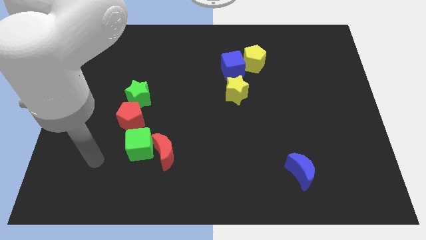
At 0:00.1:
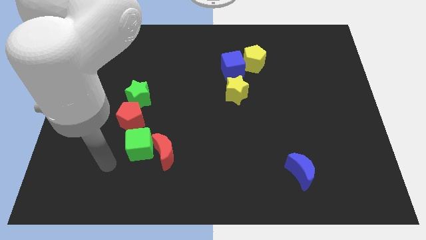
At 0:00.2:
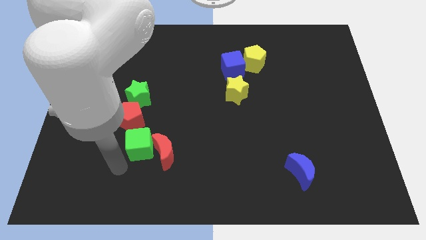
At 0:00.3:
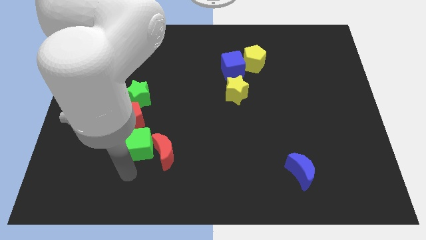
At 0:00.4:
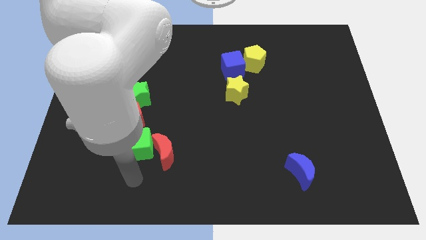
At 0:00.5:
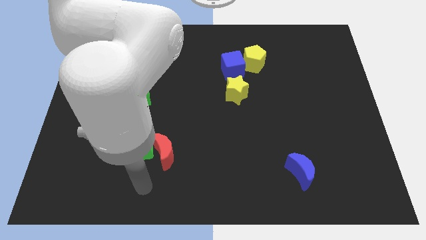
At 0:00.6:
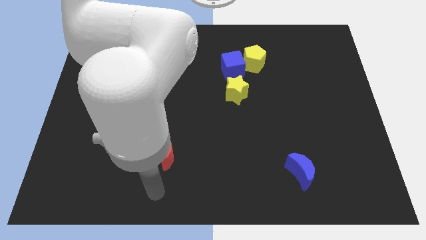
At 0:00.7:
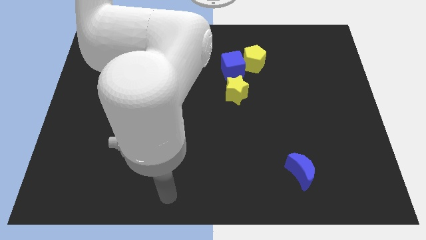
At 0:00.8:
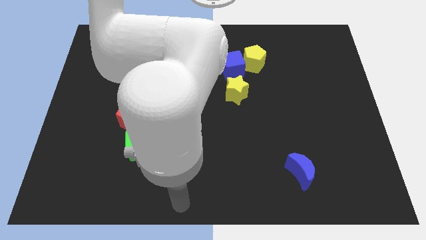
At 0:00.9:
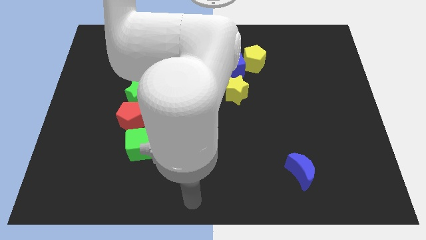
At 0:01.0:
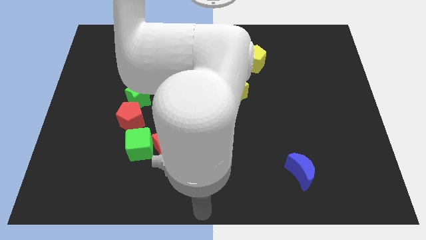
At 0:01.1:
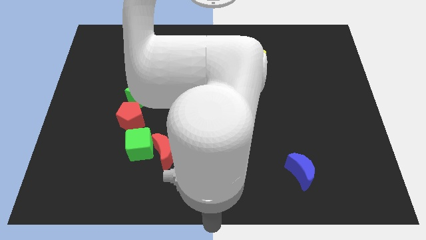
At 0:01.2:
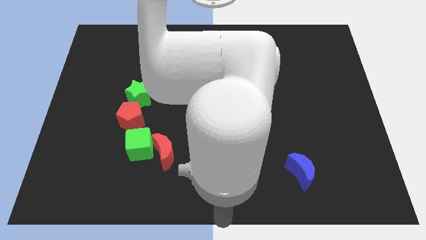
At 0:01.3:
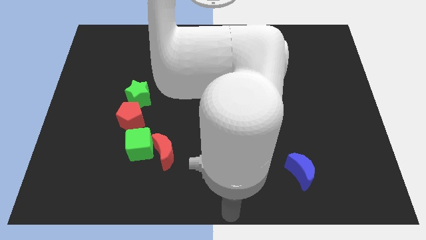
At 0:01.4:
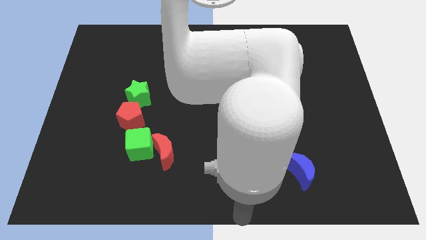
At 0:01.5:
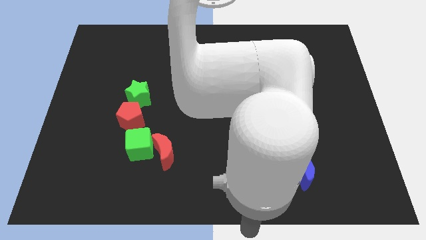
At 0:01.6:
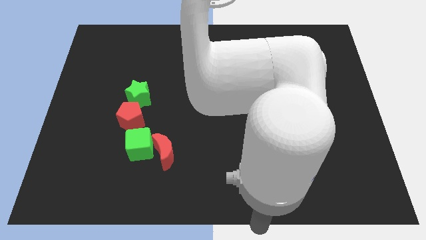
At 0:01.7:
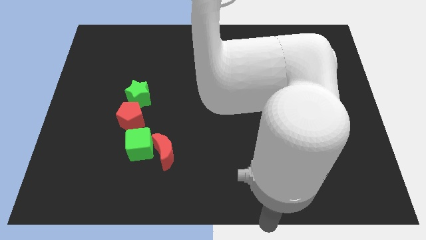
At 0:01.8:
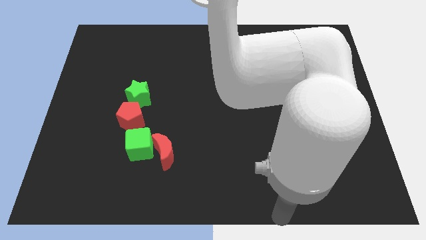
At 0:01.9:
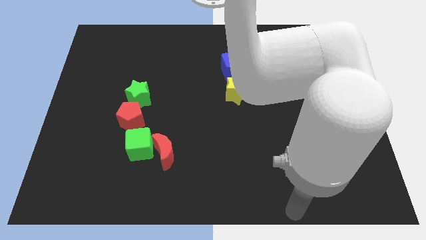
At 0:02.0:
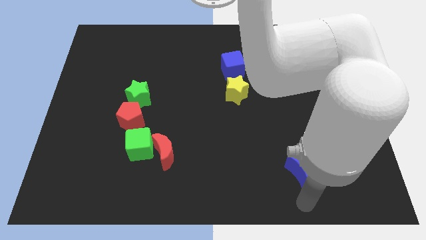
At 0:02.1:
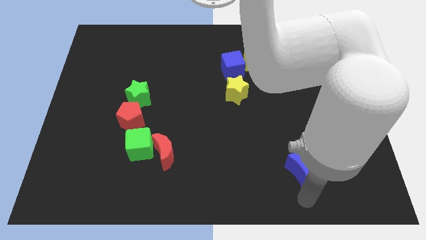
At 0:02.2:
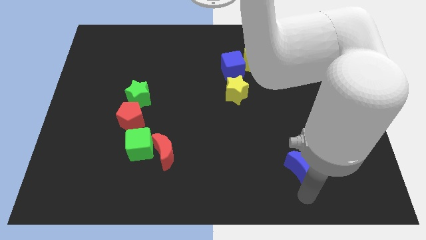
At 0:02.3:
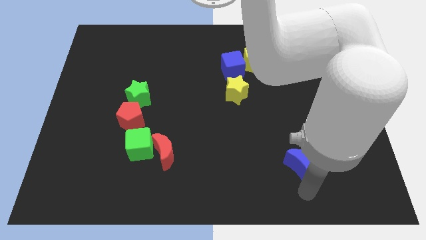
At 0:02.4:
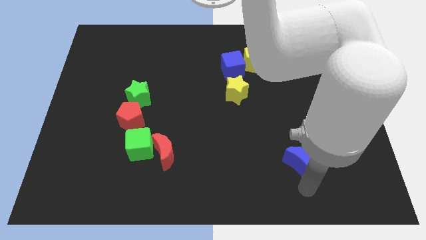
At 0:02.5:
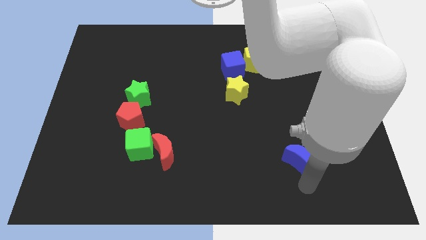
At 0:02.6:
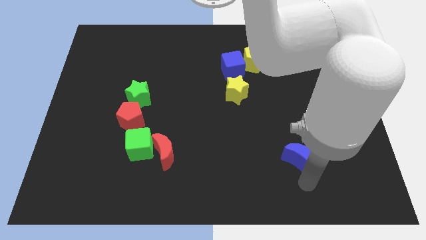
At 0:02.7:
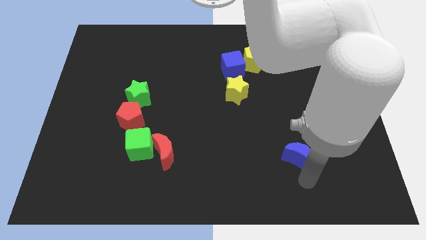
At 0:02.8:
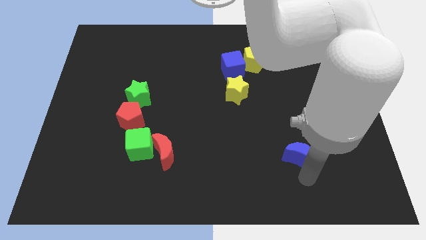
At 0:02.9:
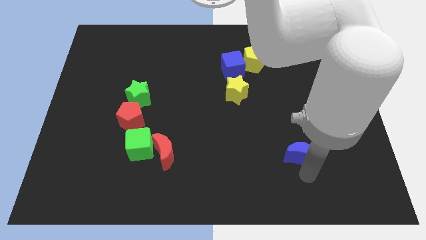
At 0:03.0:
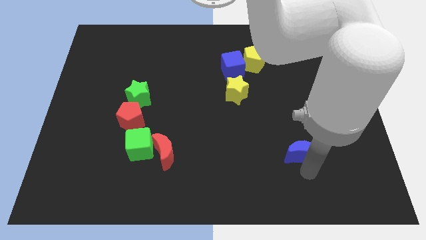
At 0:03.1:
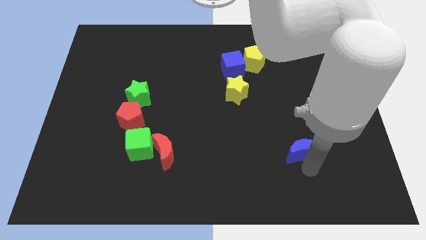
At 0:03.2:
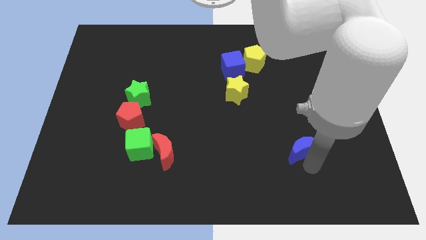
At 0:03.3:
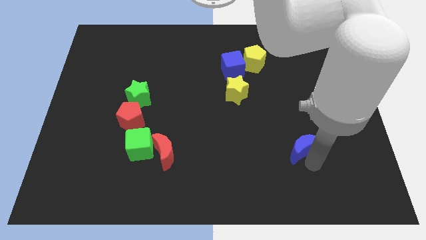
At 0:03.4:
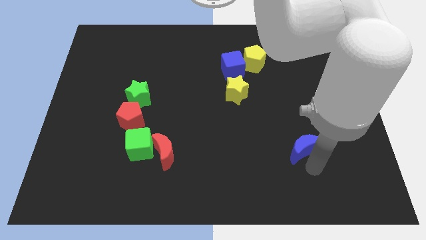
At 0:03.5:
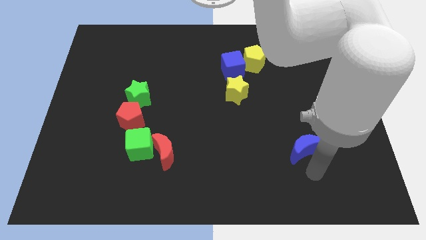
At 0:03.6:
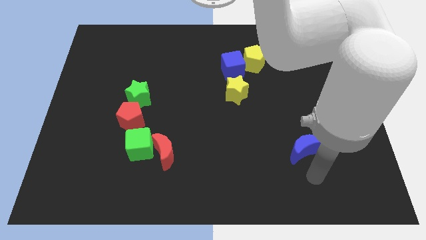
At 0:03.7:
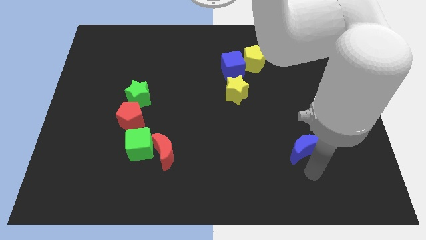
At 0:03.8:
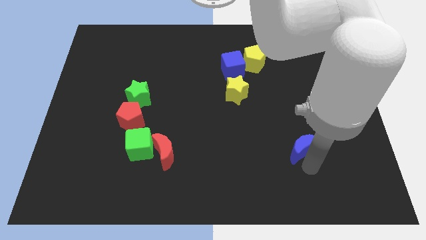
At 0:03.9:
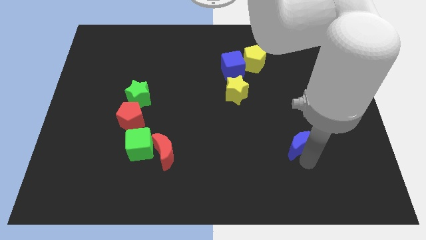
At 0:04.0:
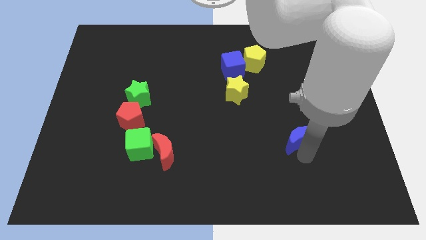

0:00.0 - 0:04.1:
move the blue moon a little bit upwards

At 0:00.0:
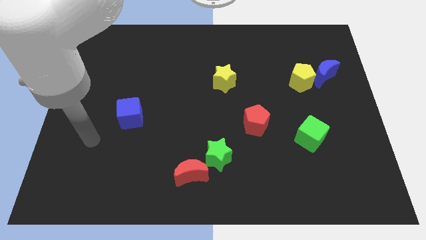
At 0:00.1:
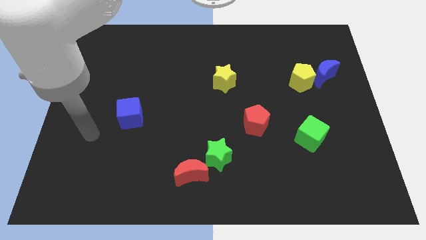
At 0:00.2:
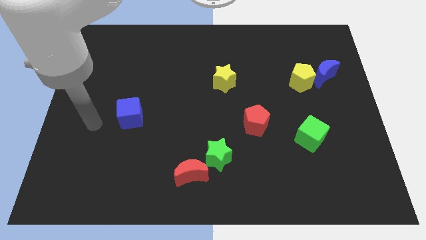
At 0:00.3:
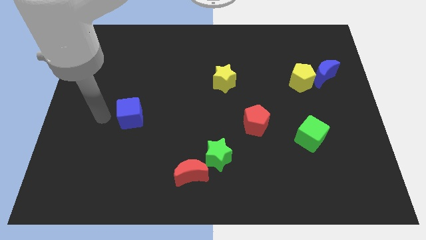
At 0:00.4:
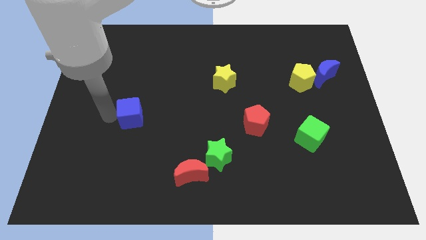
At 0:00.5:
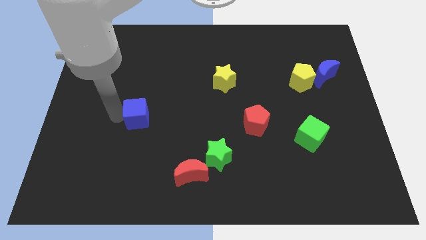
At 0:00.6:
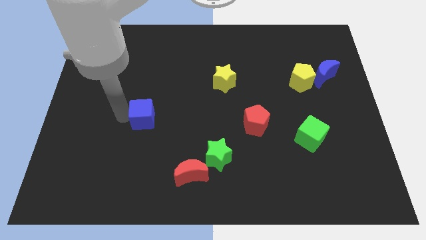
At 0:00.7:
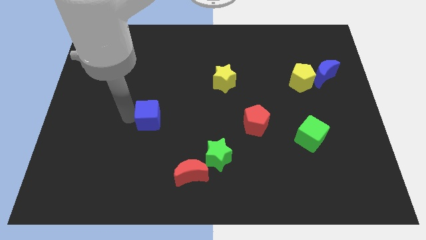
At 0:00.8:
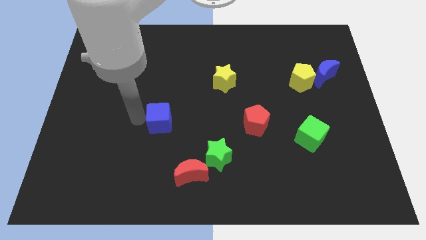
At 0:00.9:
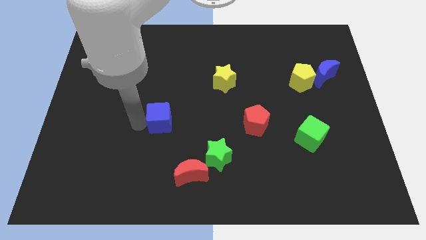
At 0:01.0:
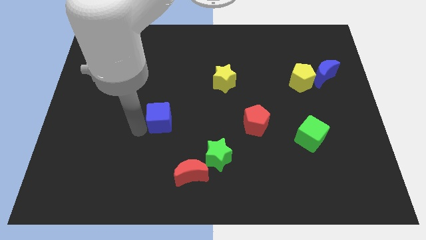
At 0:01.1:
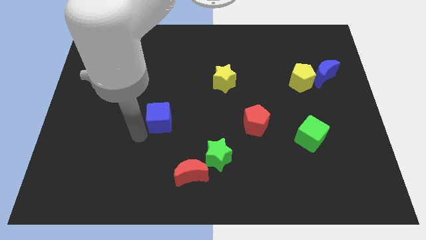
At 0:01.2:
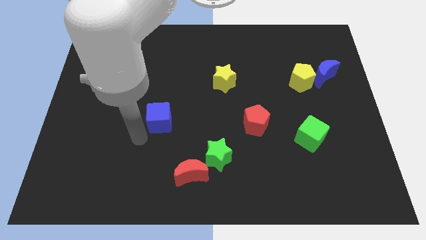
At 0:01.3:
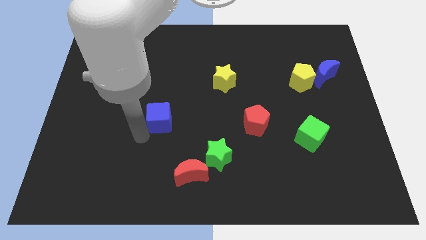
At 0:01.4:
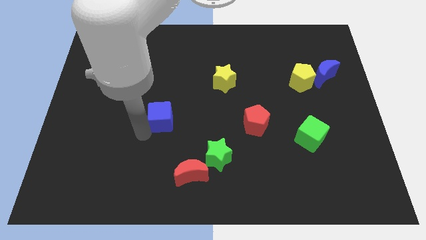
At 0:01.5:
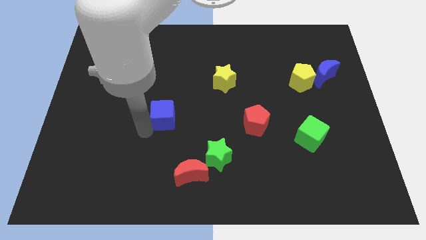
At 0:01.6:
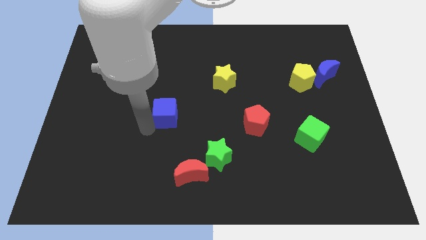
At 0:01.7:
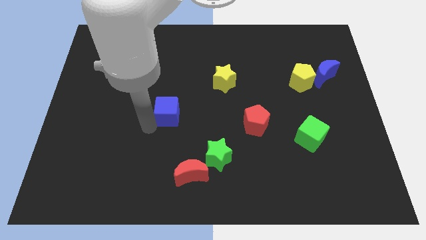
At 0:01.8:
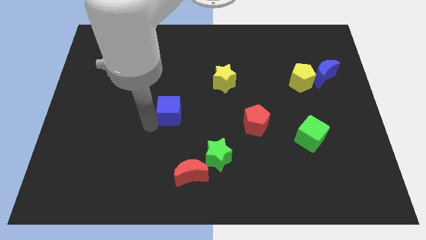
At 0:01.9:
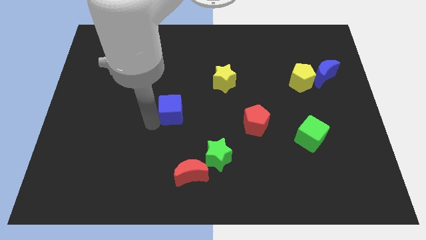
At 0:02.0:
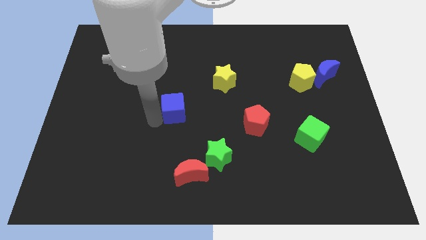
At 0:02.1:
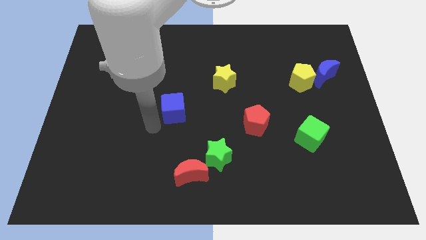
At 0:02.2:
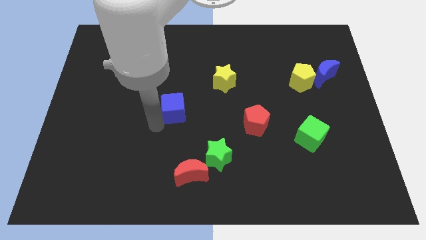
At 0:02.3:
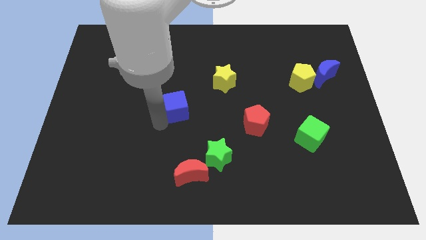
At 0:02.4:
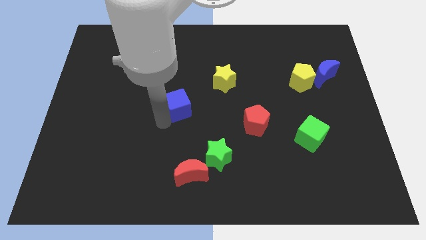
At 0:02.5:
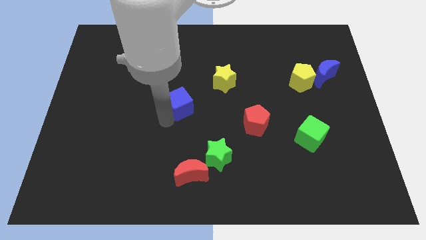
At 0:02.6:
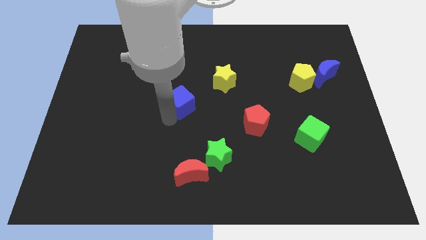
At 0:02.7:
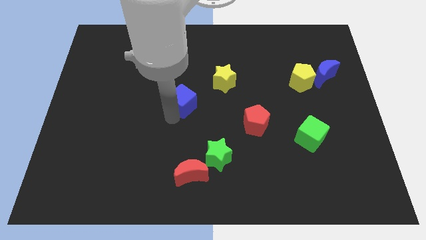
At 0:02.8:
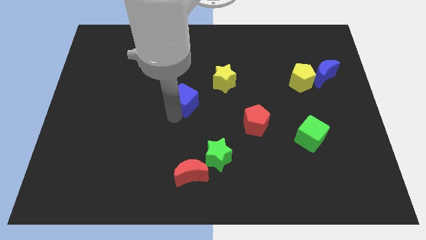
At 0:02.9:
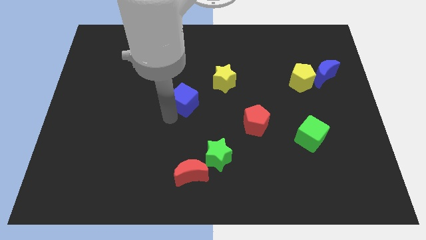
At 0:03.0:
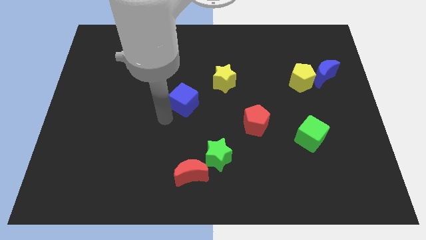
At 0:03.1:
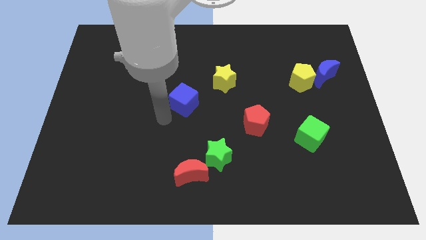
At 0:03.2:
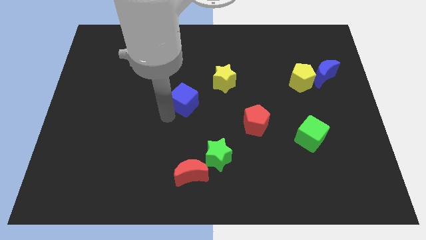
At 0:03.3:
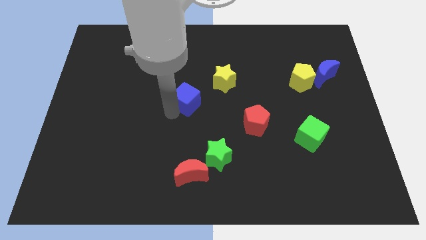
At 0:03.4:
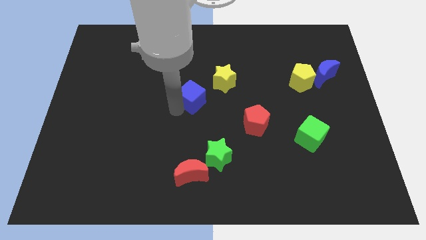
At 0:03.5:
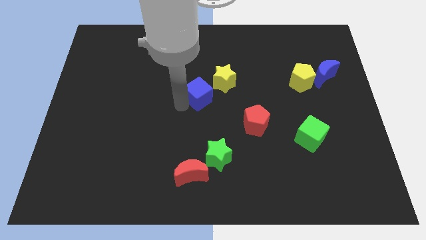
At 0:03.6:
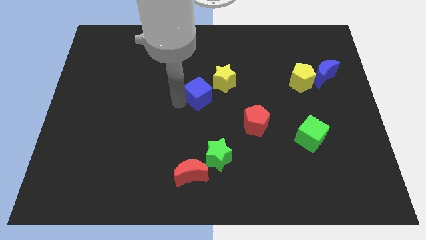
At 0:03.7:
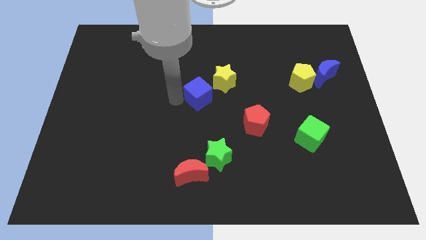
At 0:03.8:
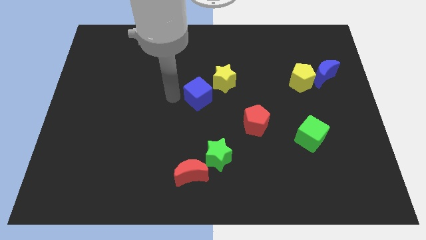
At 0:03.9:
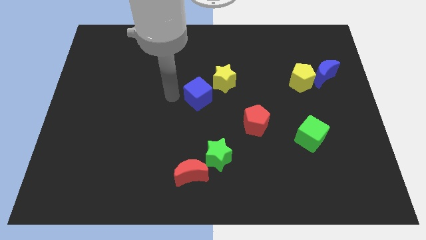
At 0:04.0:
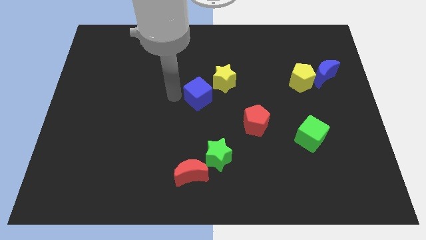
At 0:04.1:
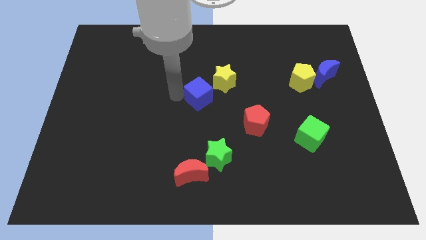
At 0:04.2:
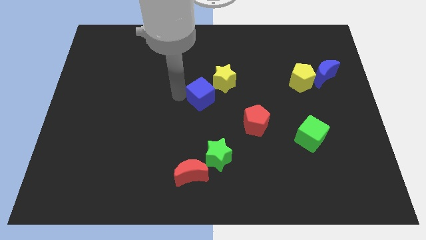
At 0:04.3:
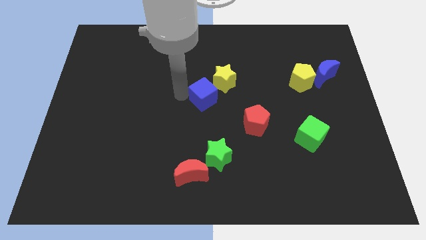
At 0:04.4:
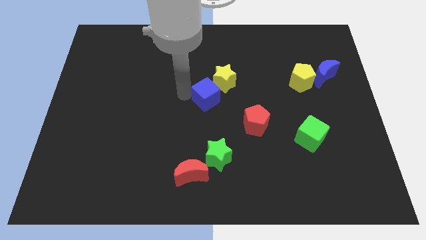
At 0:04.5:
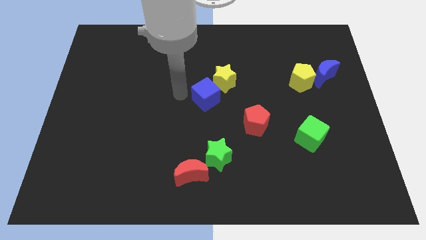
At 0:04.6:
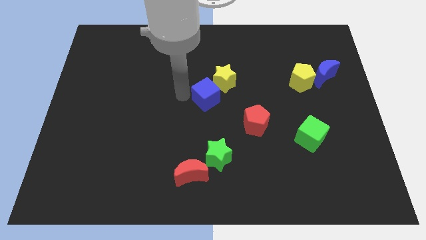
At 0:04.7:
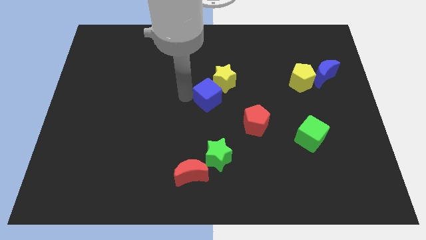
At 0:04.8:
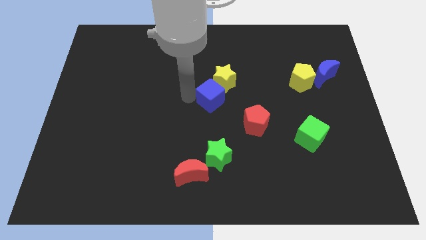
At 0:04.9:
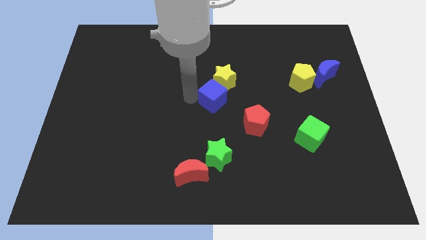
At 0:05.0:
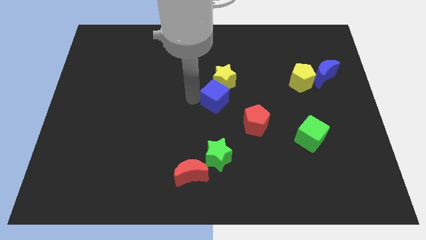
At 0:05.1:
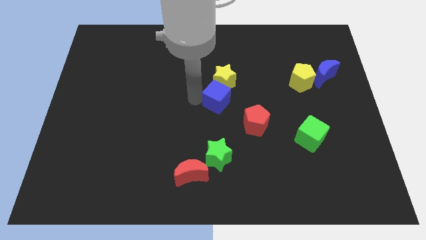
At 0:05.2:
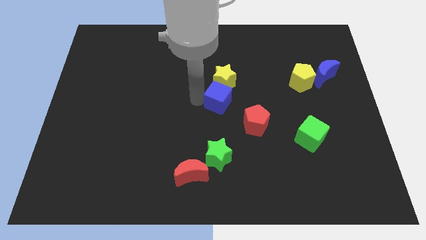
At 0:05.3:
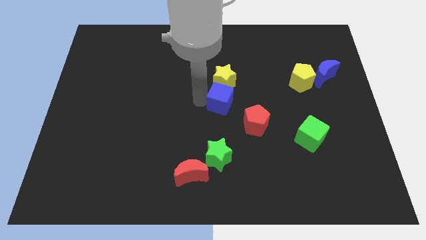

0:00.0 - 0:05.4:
push the blue cube right
